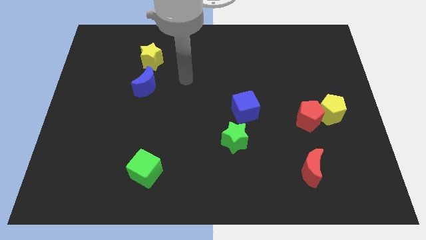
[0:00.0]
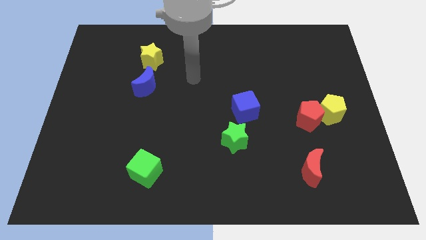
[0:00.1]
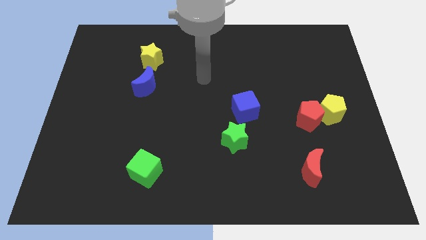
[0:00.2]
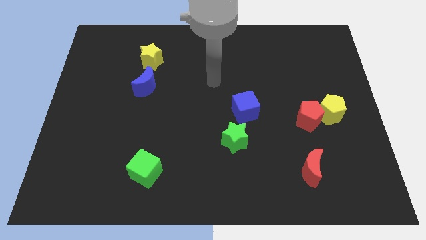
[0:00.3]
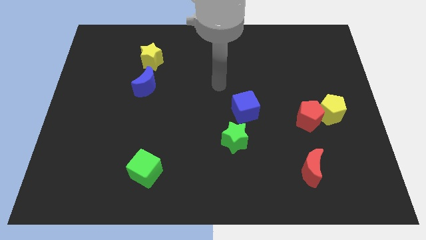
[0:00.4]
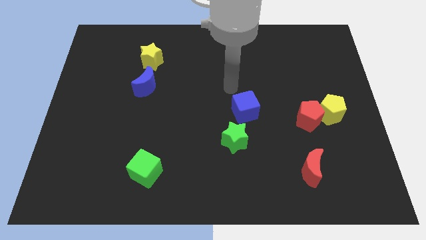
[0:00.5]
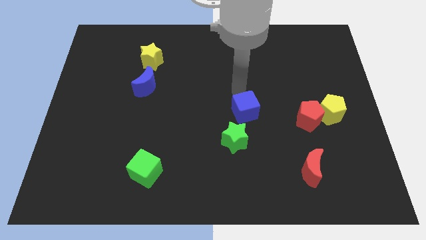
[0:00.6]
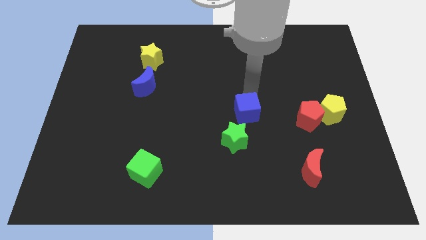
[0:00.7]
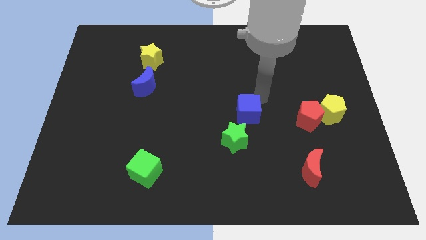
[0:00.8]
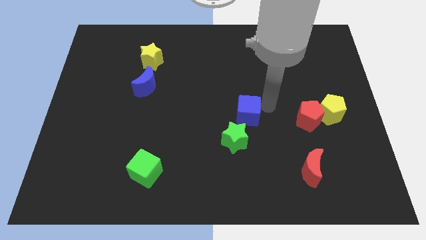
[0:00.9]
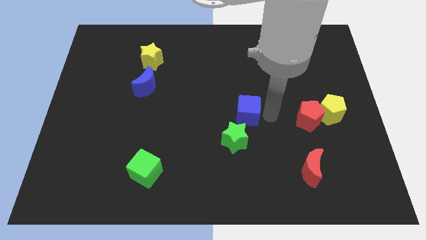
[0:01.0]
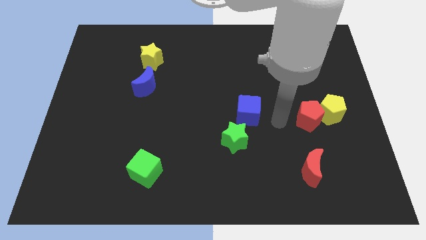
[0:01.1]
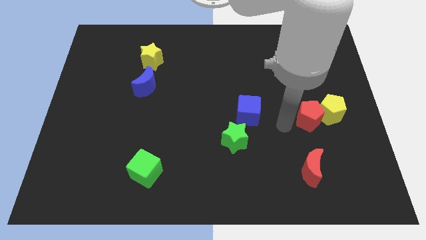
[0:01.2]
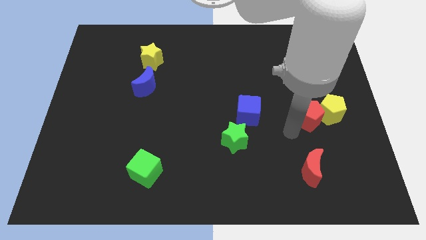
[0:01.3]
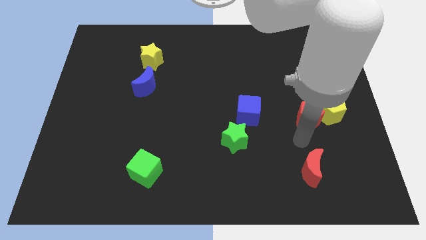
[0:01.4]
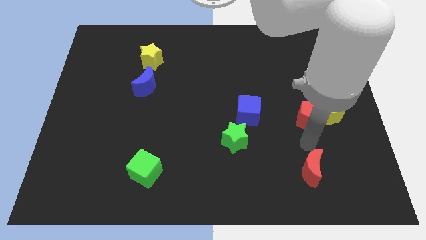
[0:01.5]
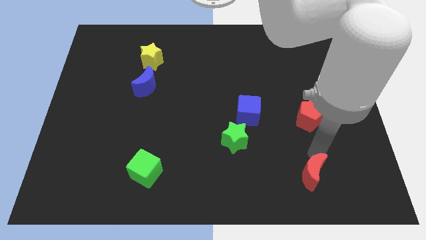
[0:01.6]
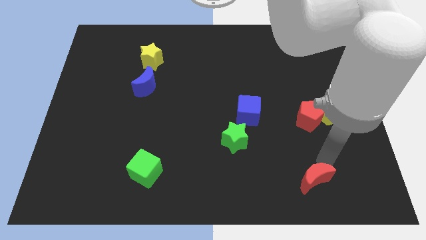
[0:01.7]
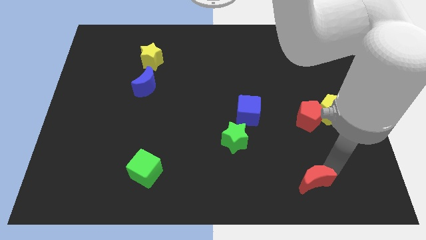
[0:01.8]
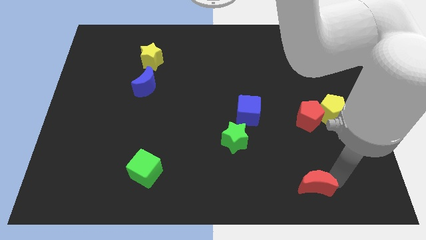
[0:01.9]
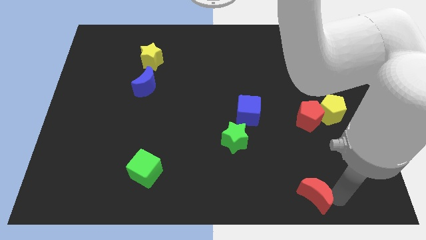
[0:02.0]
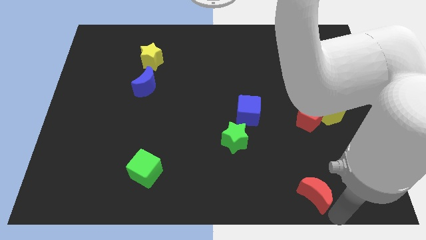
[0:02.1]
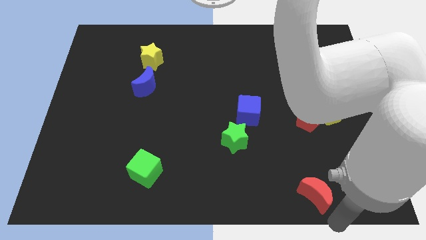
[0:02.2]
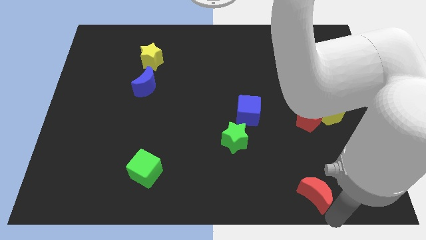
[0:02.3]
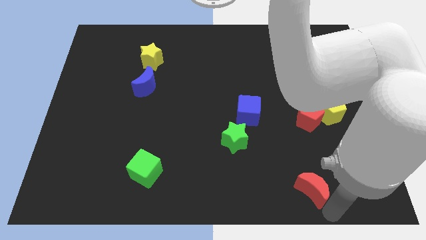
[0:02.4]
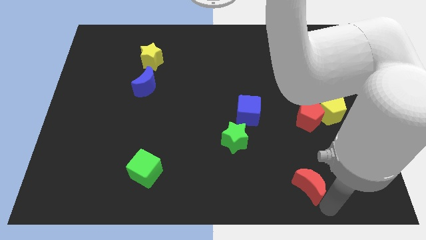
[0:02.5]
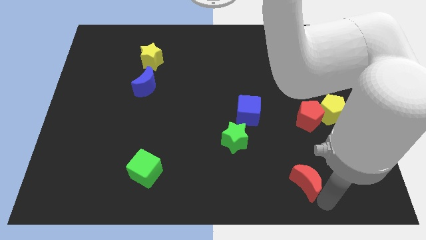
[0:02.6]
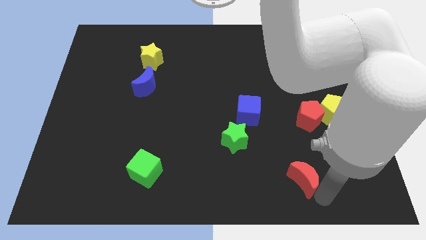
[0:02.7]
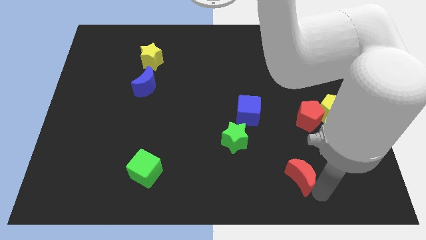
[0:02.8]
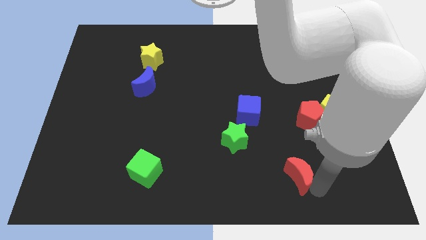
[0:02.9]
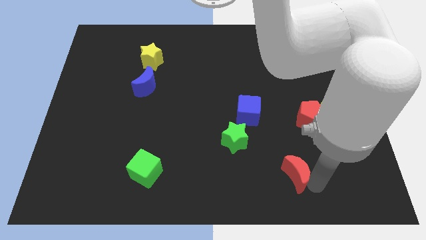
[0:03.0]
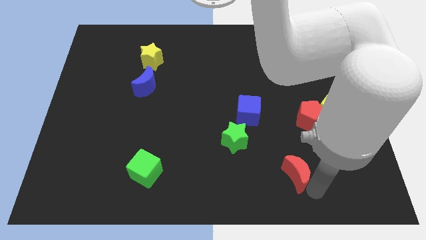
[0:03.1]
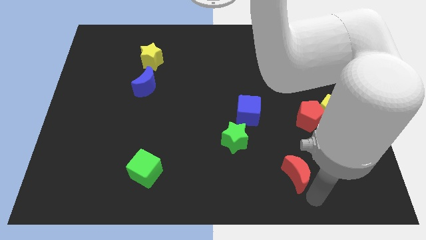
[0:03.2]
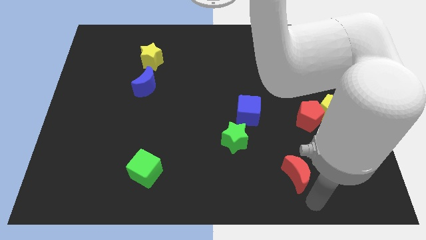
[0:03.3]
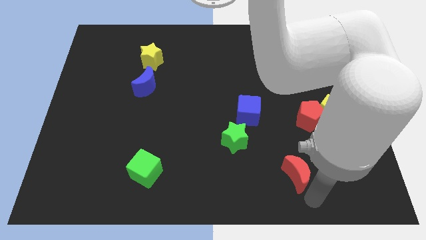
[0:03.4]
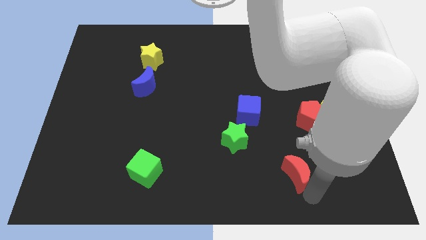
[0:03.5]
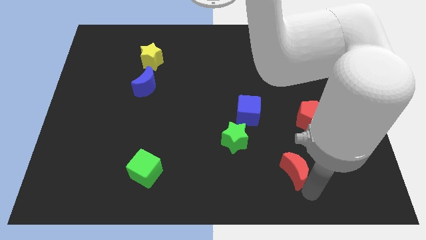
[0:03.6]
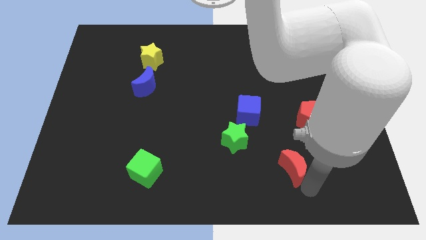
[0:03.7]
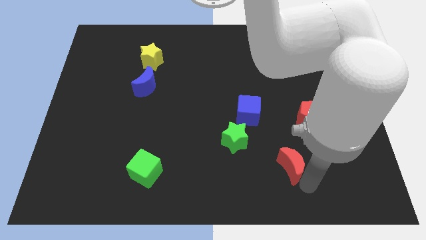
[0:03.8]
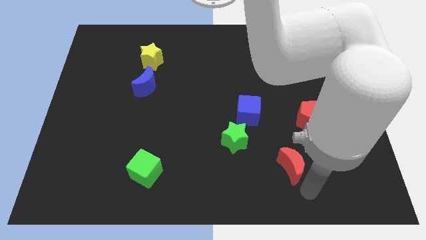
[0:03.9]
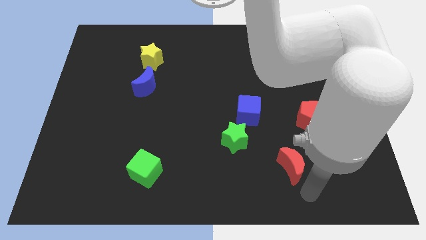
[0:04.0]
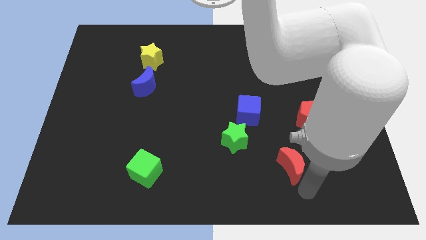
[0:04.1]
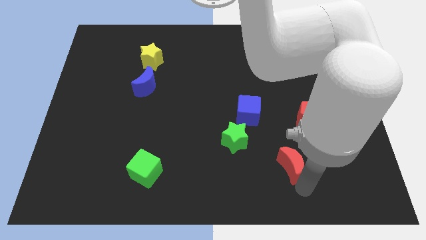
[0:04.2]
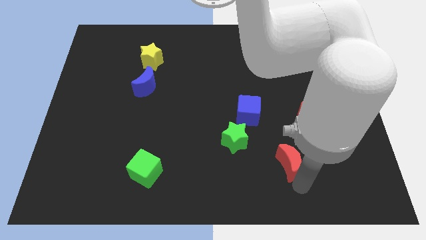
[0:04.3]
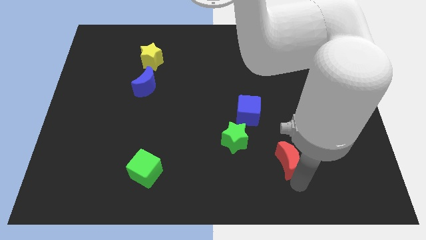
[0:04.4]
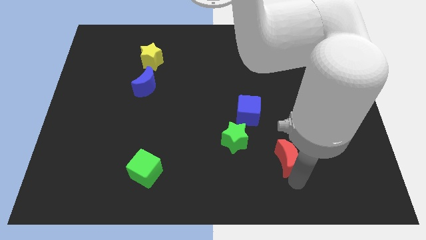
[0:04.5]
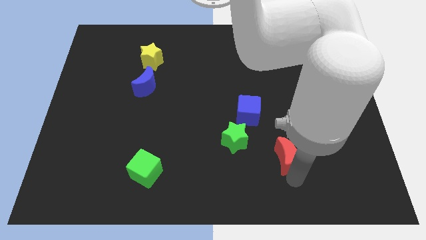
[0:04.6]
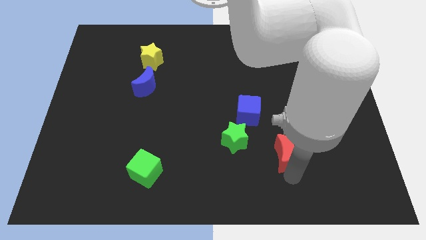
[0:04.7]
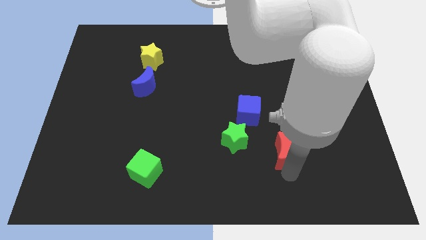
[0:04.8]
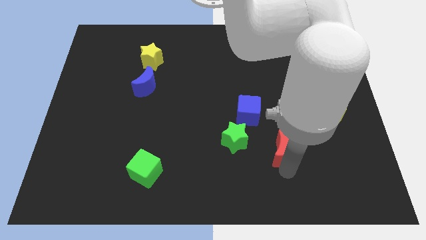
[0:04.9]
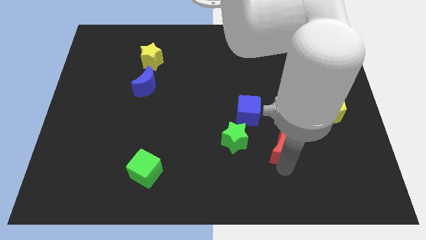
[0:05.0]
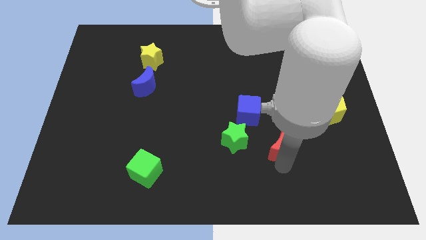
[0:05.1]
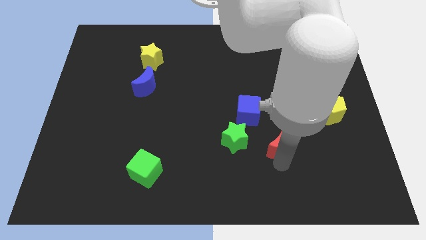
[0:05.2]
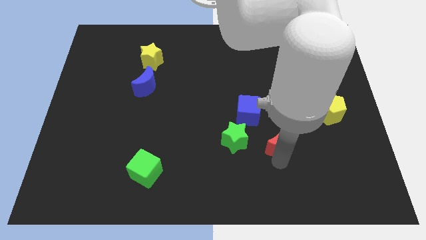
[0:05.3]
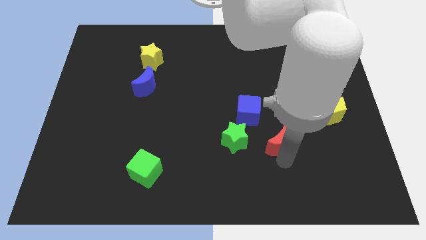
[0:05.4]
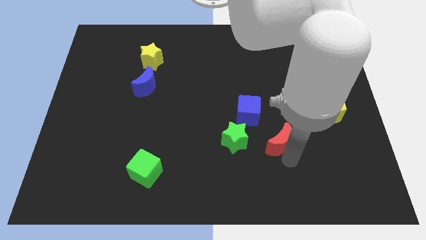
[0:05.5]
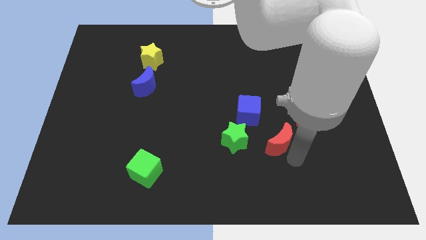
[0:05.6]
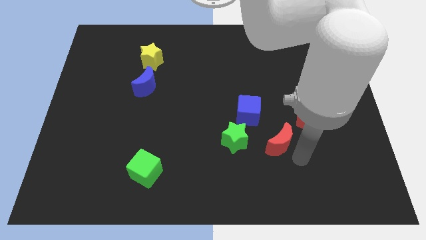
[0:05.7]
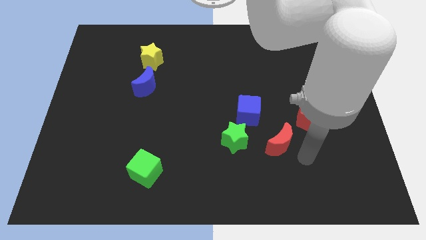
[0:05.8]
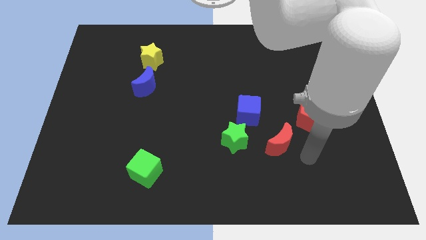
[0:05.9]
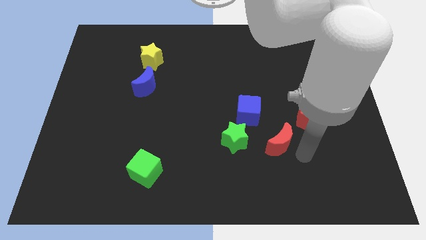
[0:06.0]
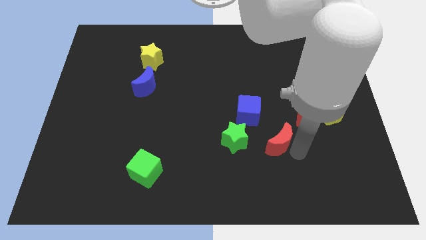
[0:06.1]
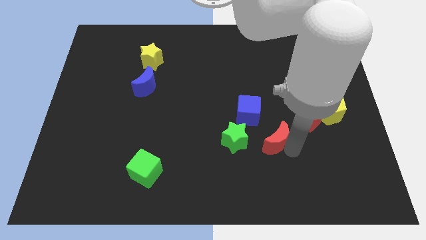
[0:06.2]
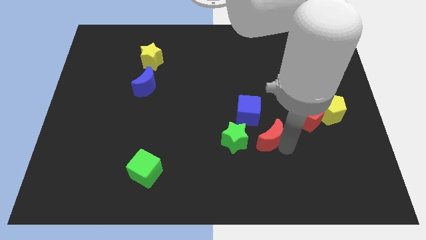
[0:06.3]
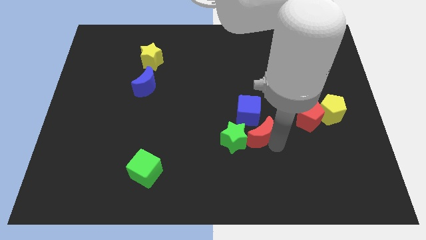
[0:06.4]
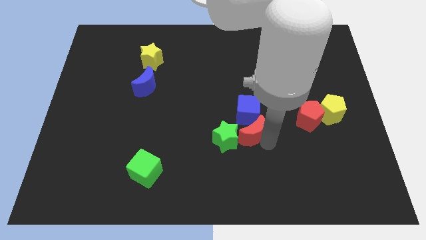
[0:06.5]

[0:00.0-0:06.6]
move the red moon towards the blue cube
